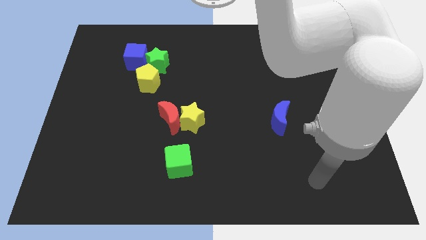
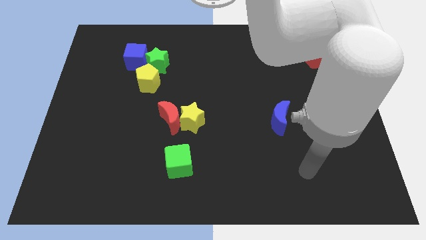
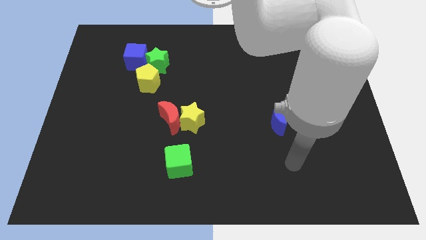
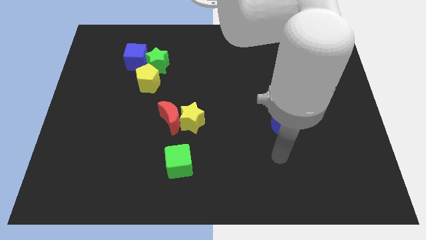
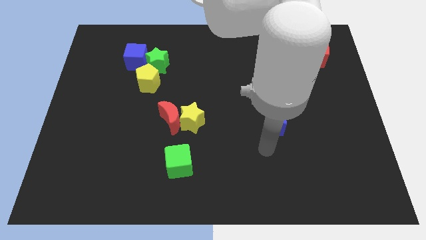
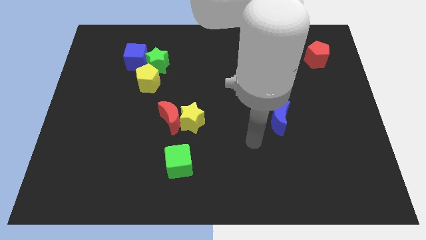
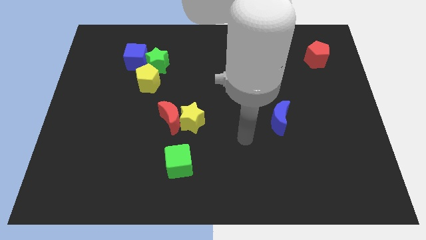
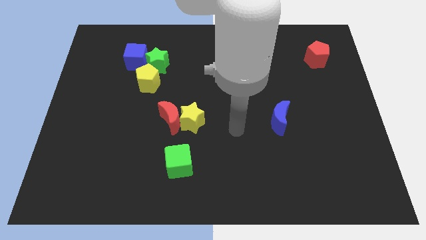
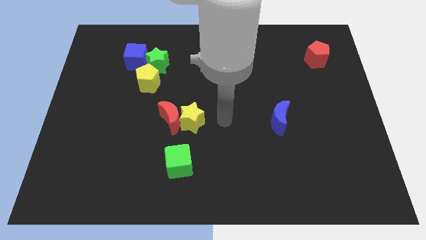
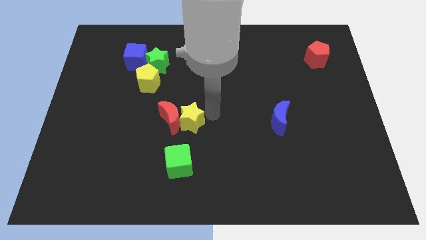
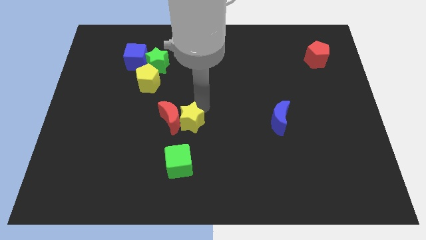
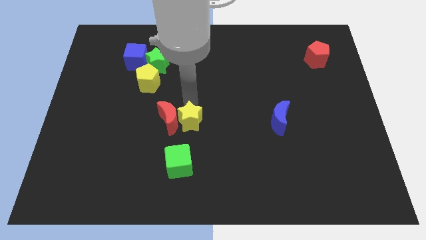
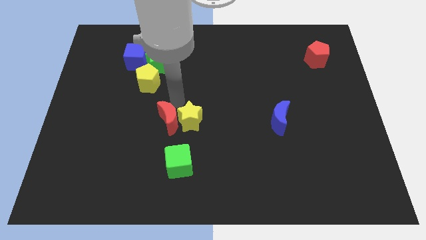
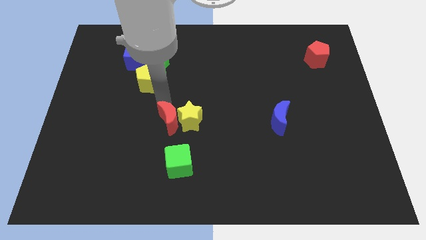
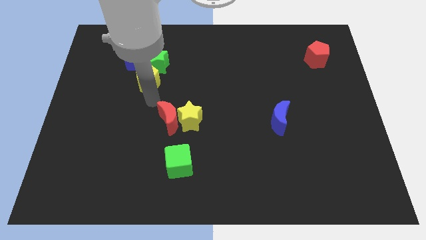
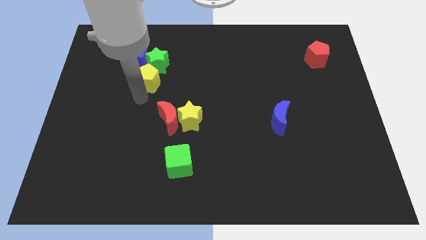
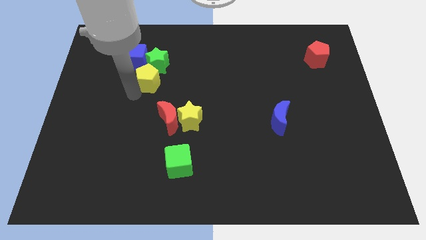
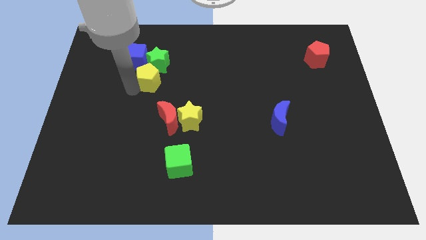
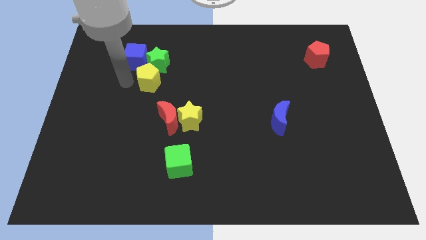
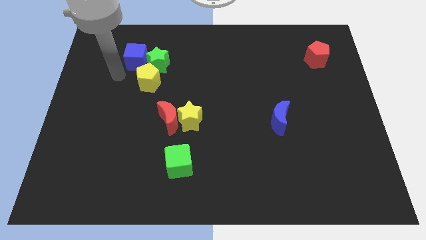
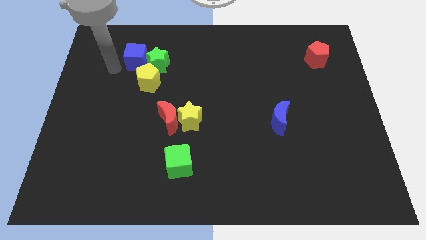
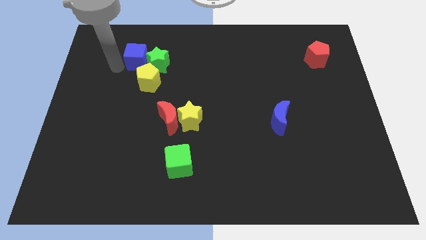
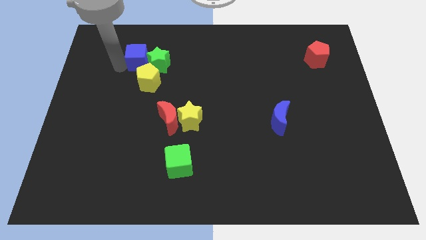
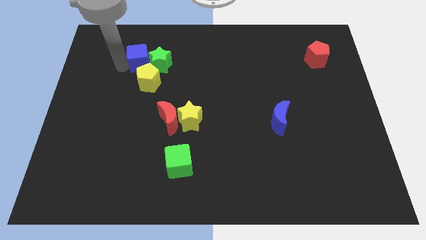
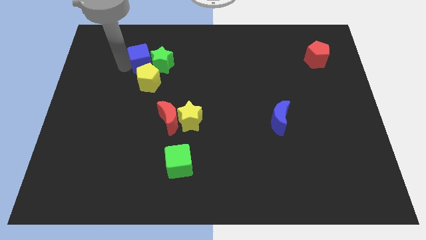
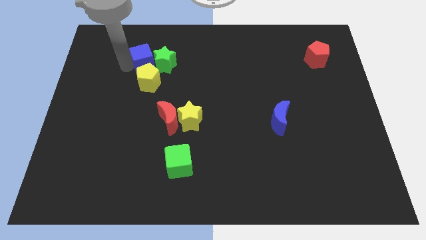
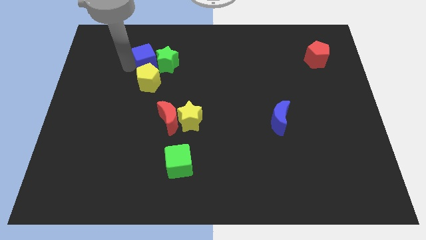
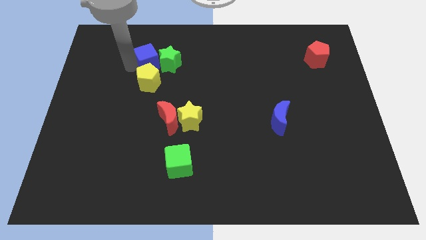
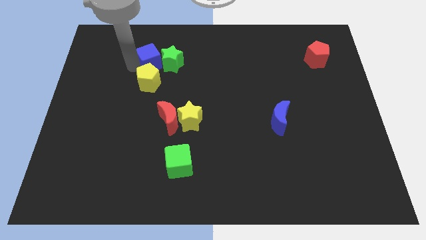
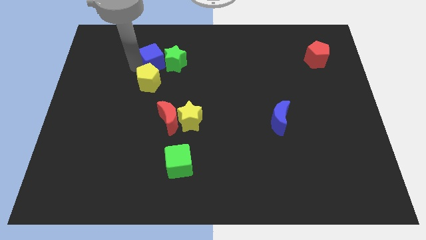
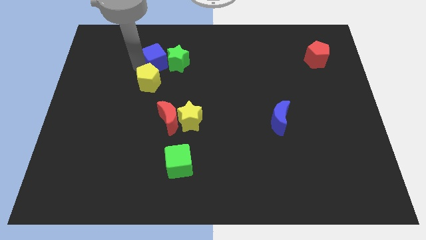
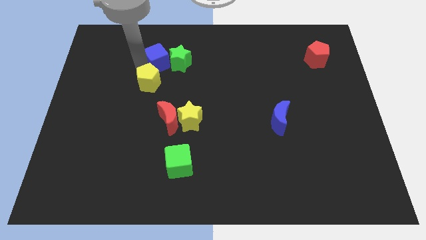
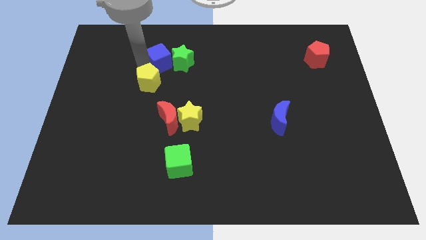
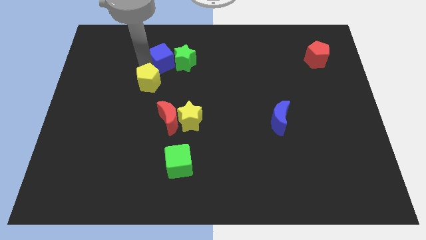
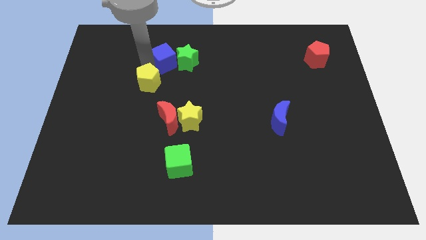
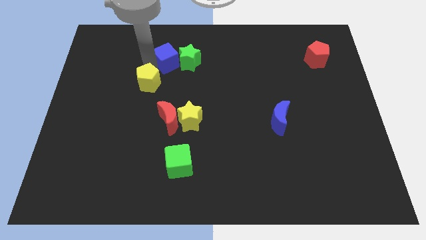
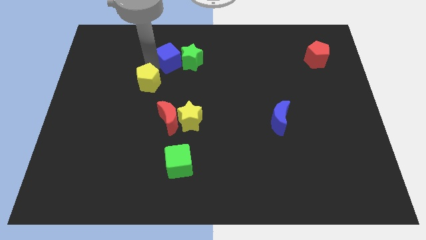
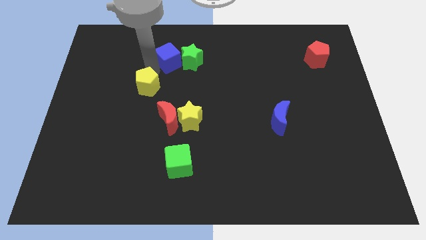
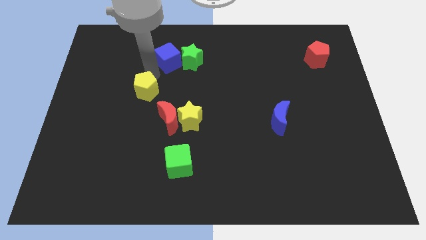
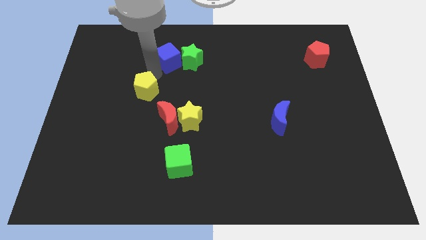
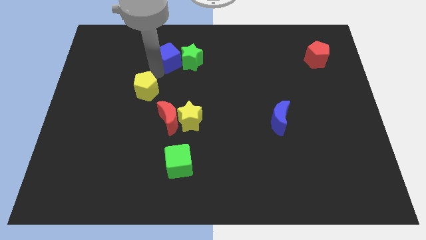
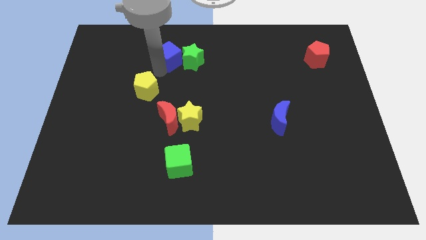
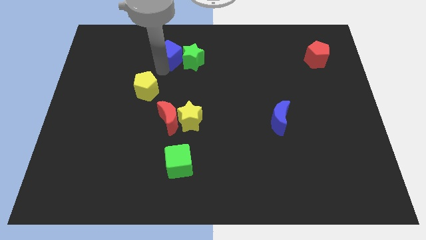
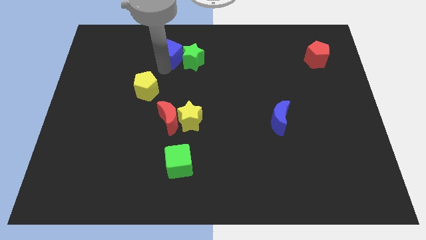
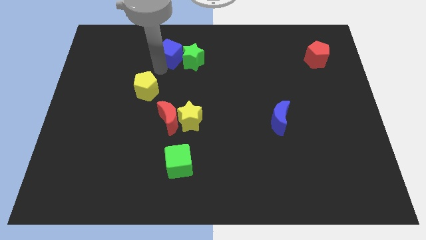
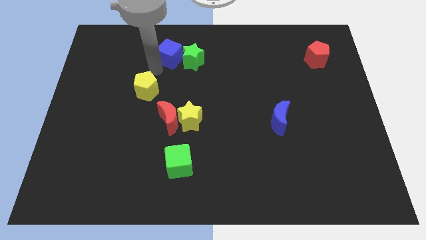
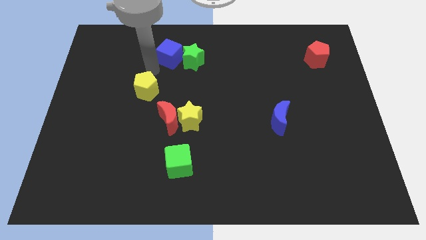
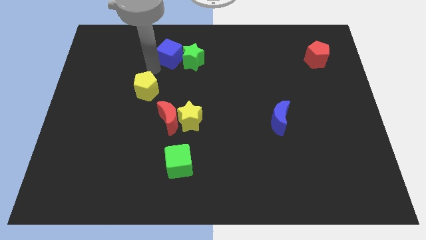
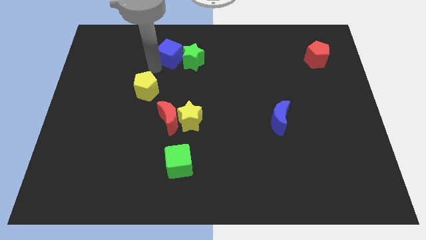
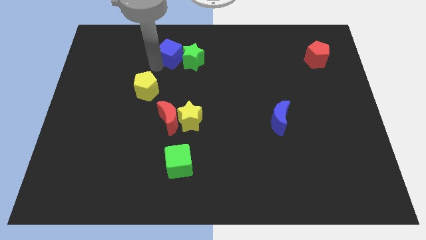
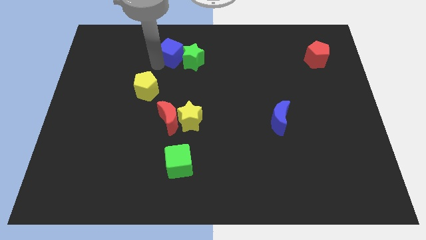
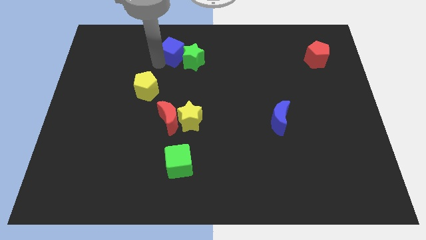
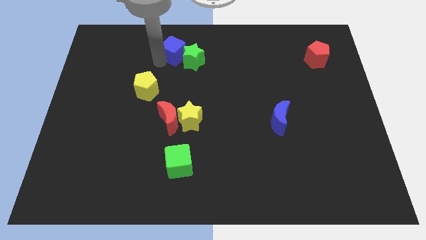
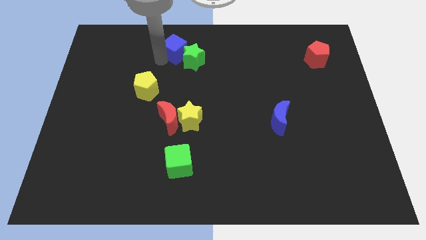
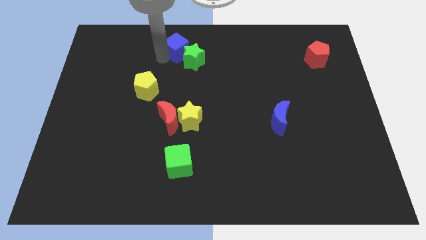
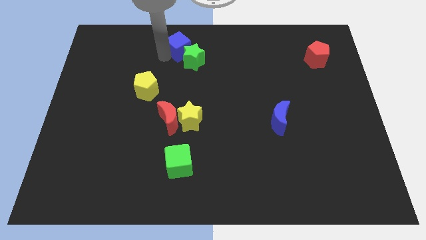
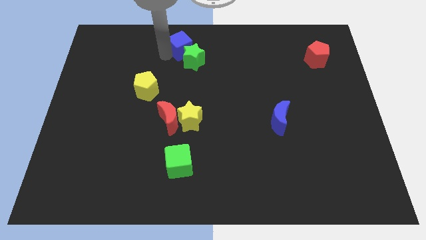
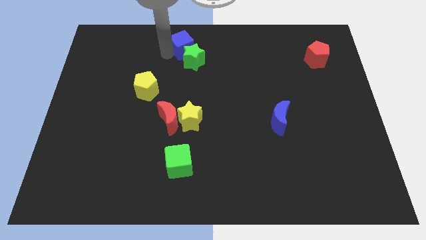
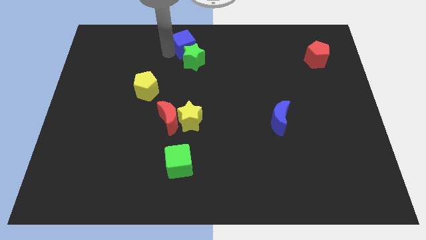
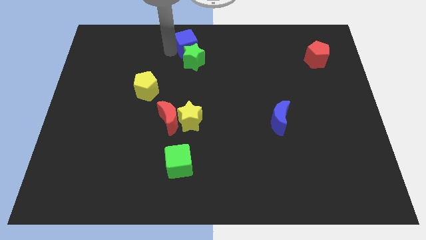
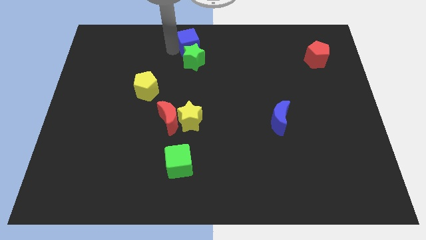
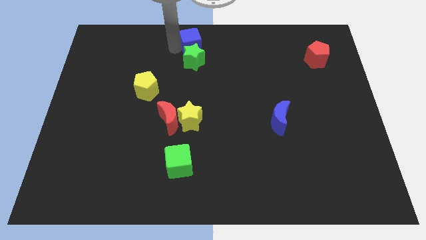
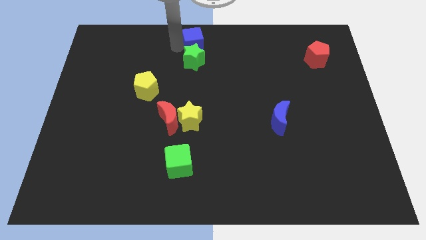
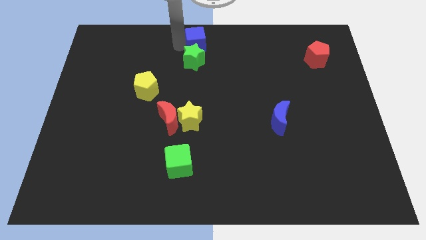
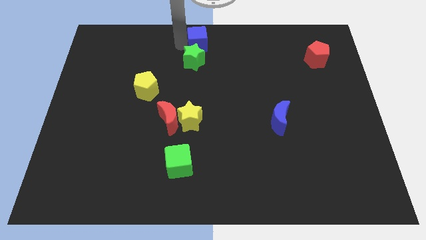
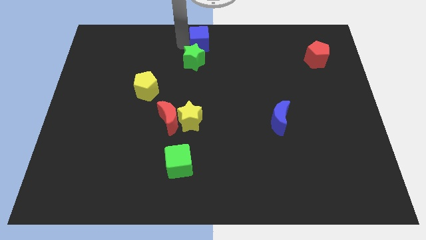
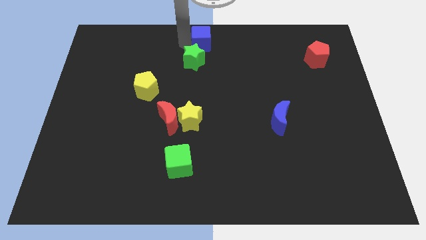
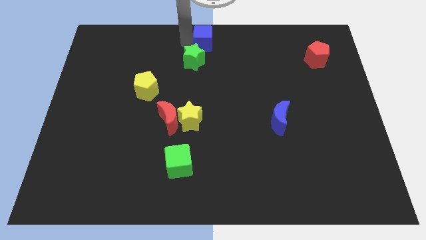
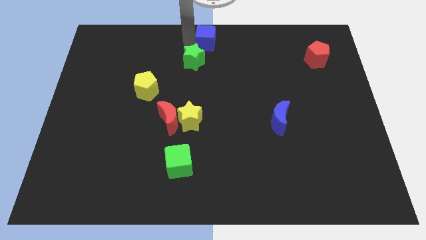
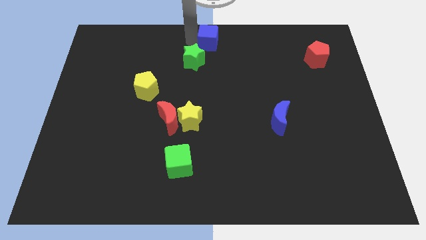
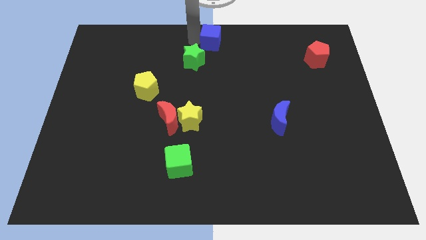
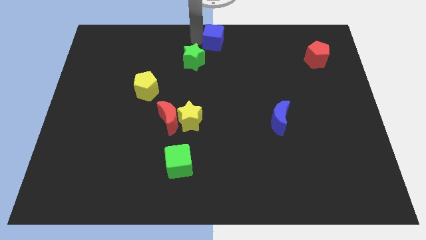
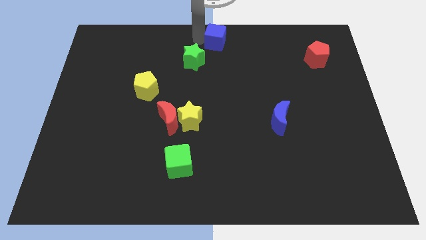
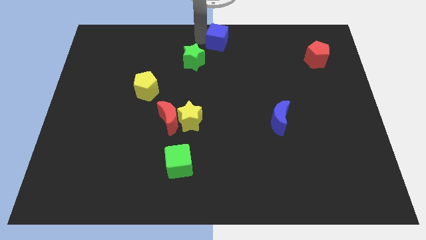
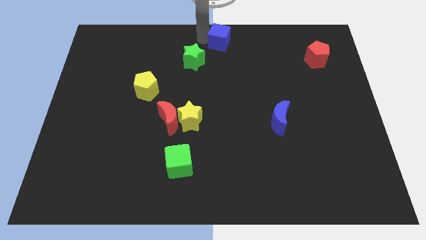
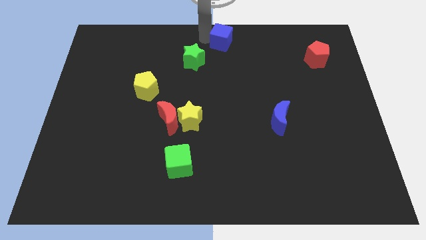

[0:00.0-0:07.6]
move the blue cube to the right
